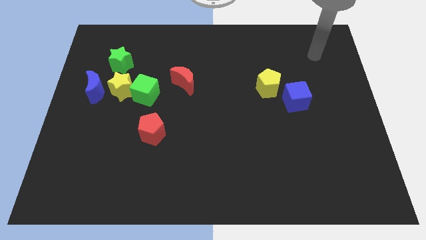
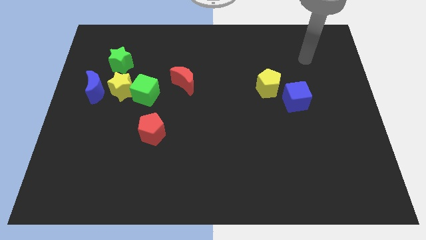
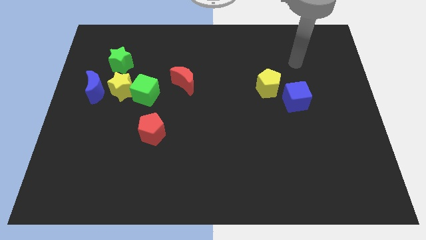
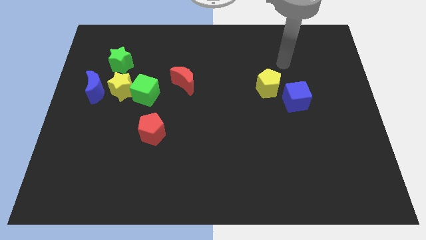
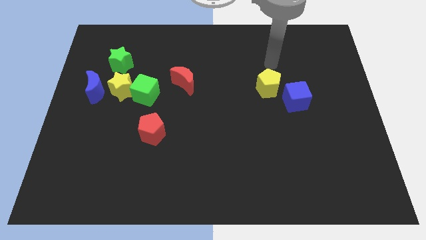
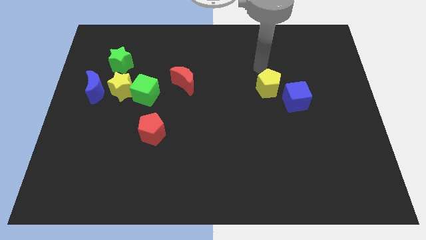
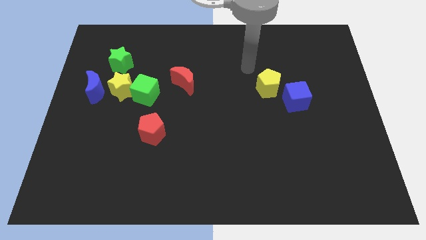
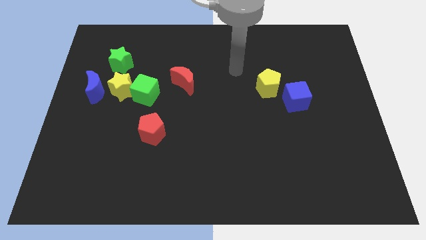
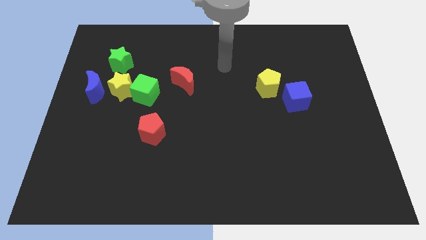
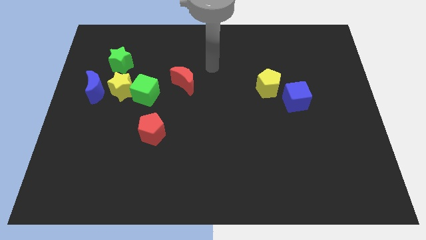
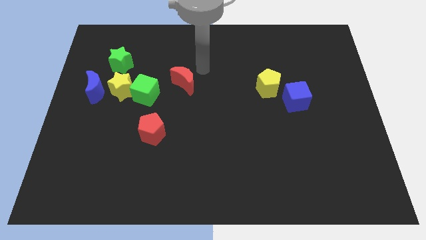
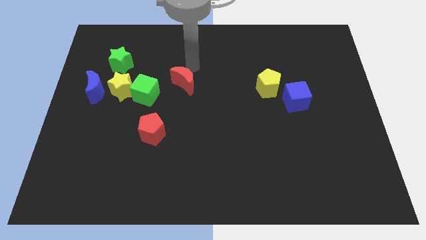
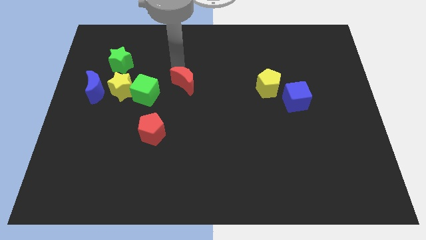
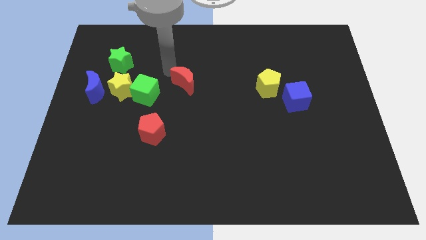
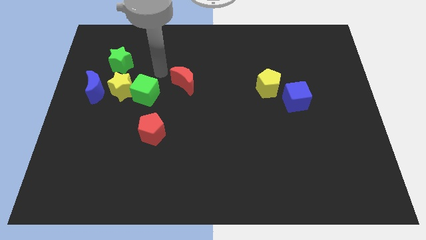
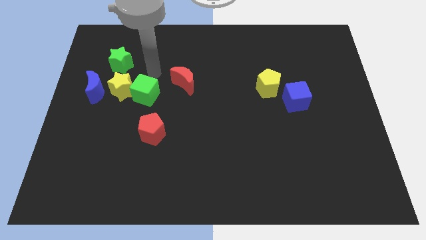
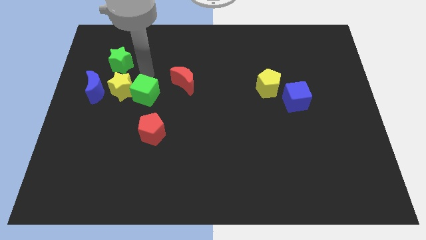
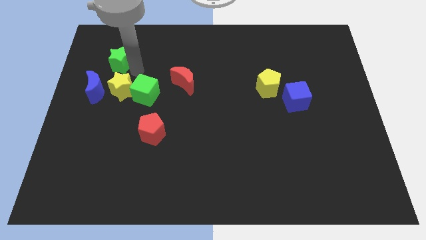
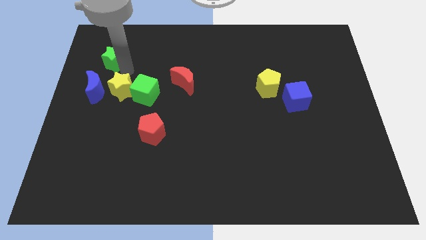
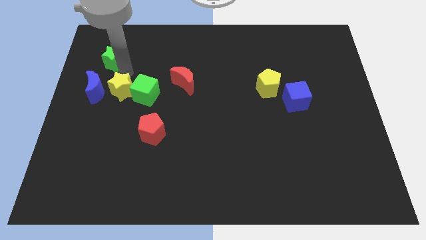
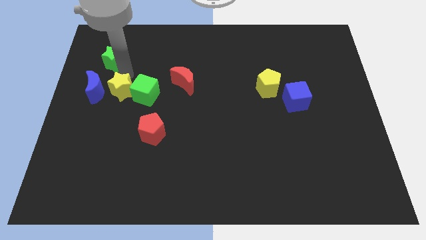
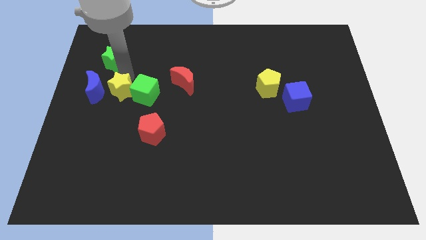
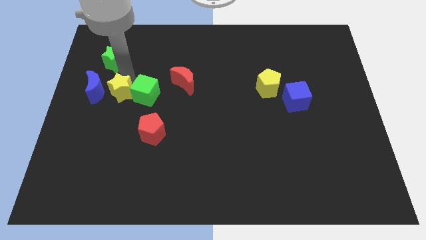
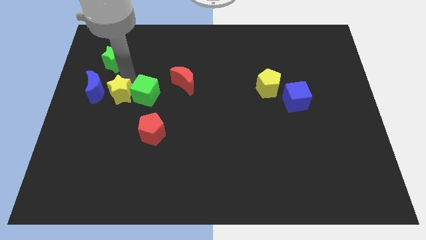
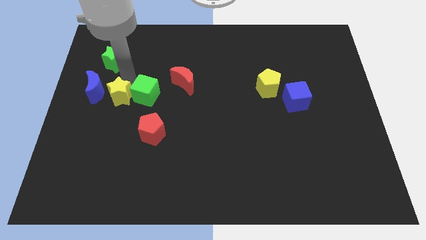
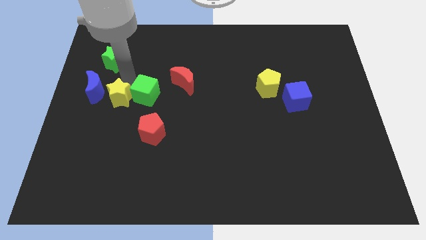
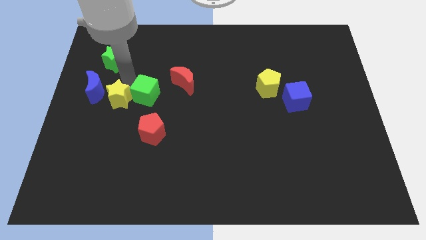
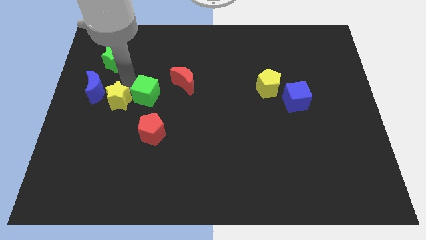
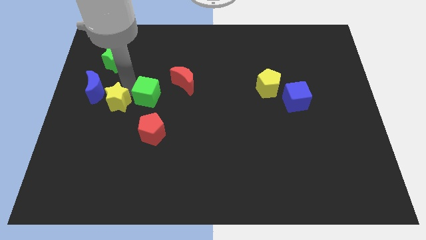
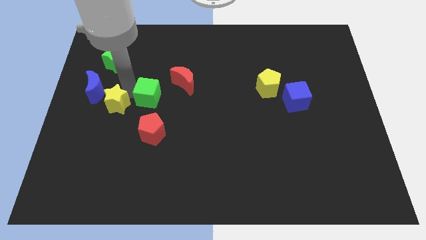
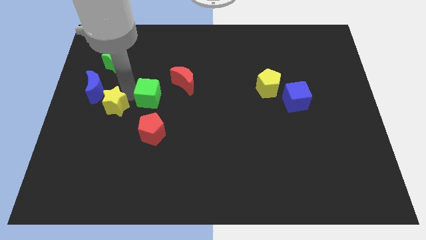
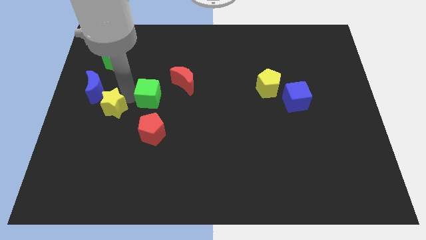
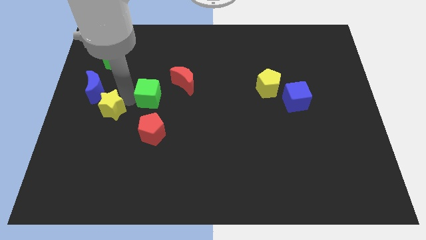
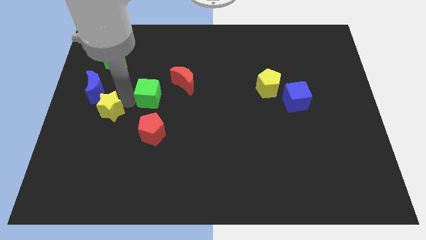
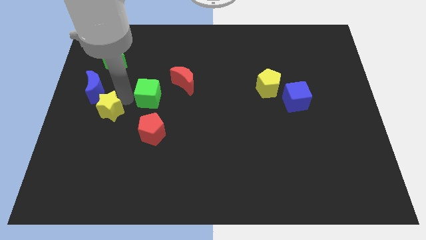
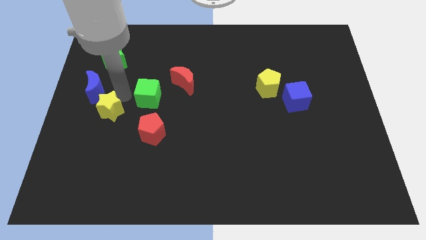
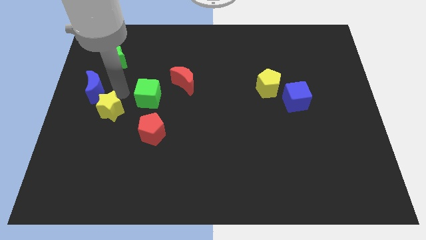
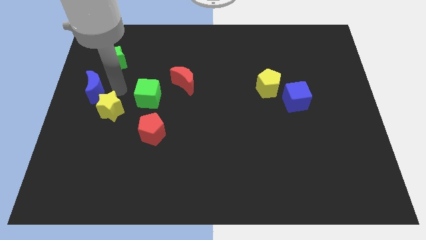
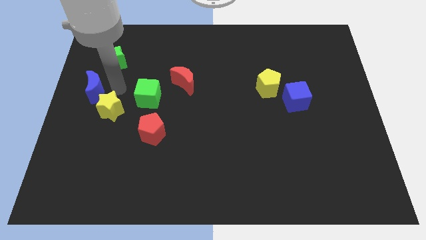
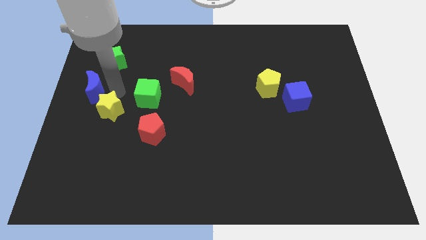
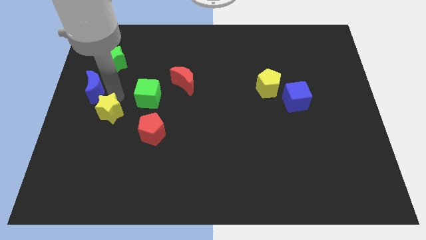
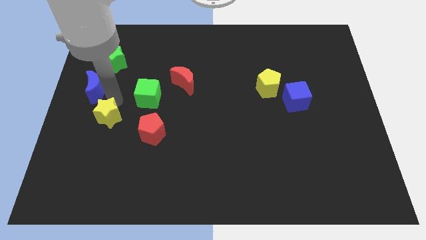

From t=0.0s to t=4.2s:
move the yellow star away from the group of blocks

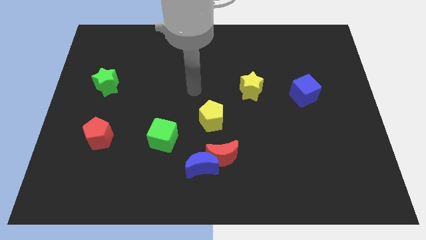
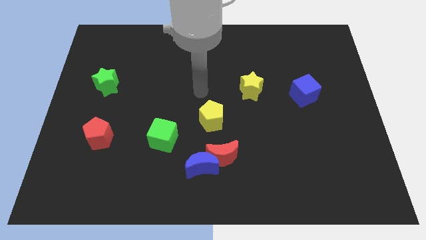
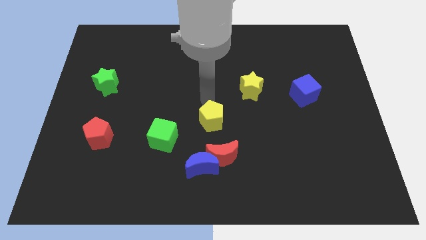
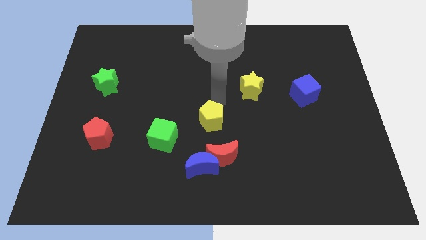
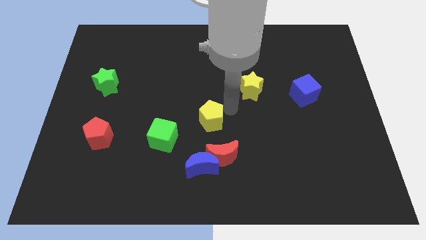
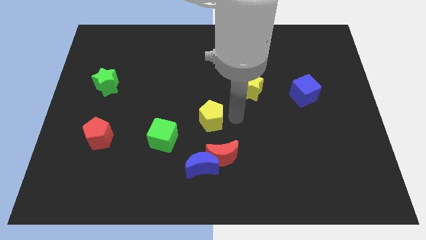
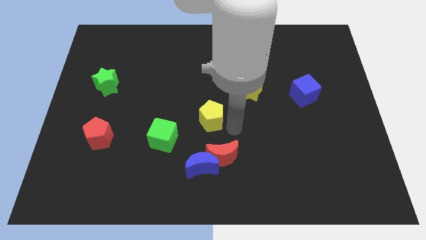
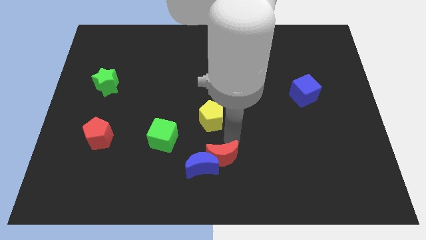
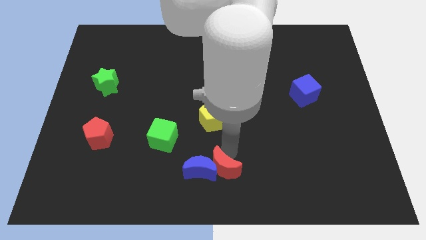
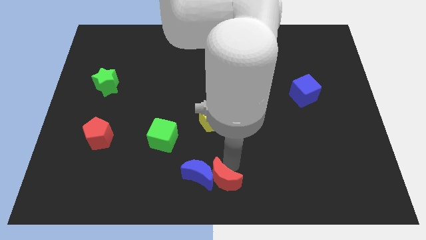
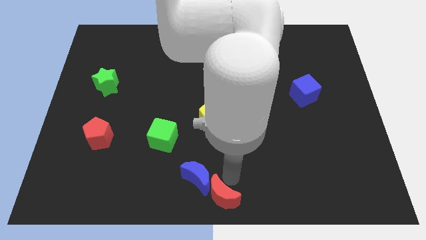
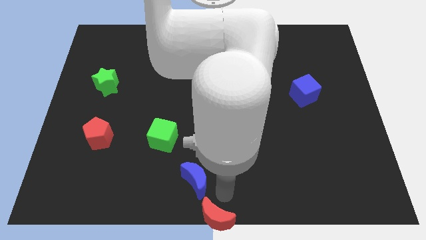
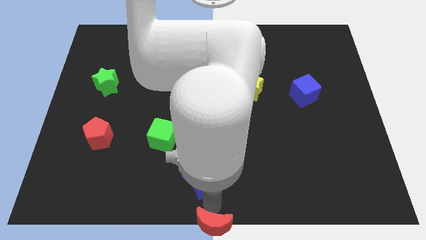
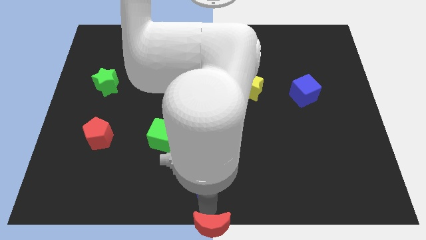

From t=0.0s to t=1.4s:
pull the blue moon apart from the red moon

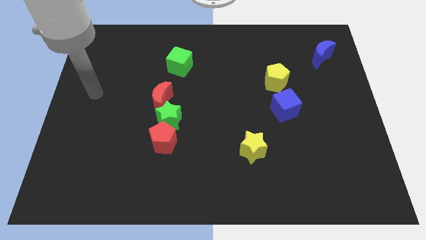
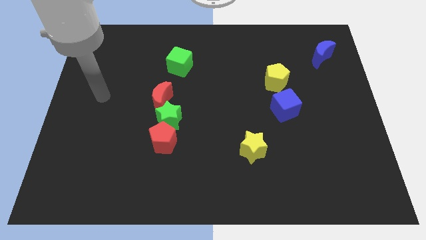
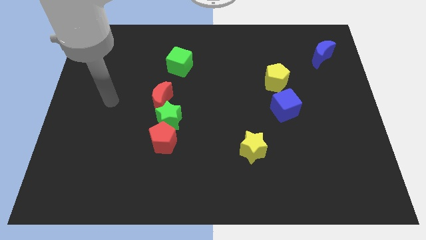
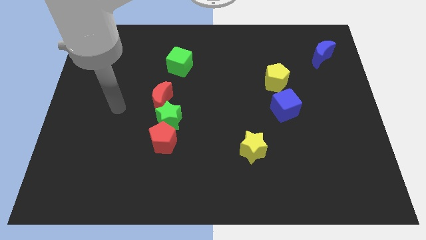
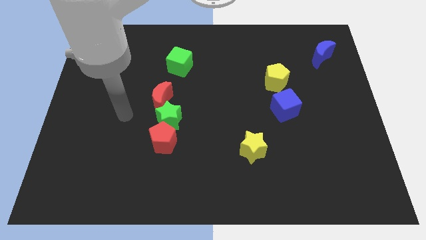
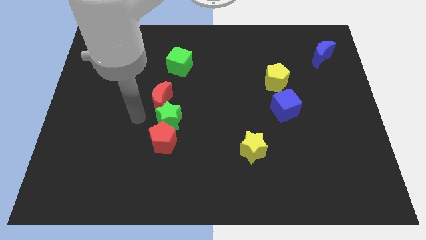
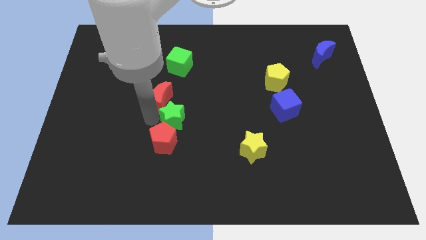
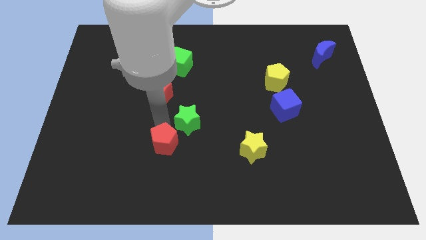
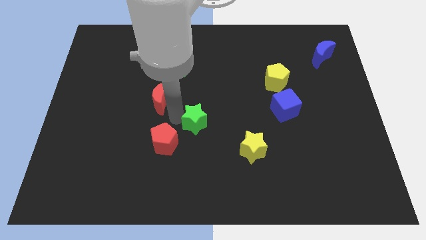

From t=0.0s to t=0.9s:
pull the red moon apart from the green star

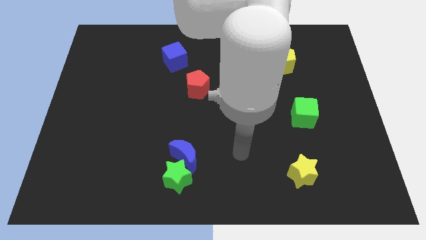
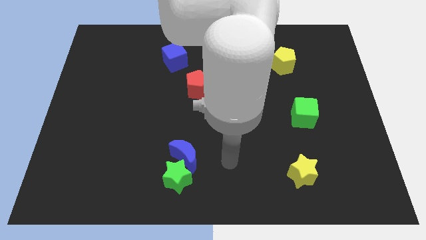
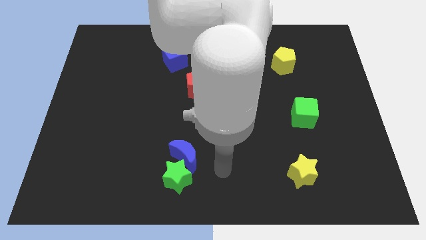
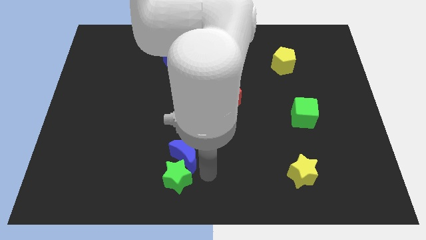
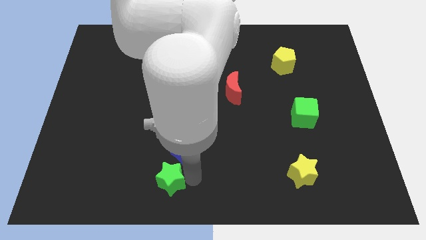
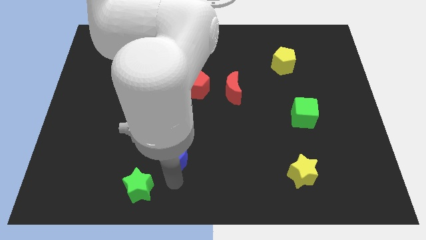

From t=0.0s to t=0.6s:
separate the blue moon from the green star

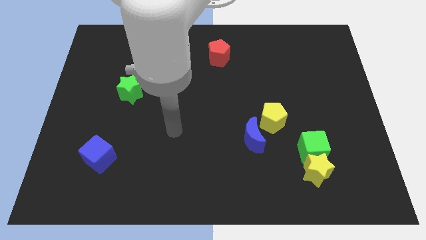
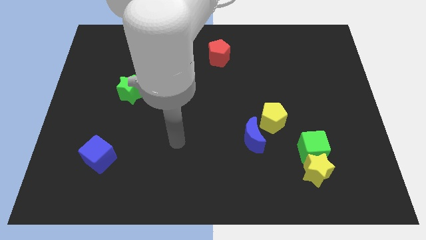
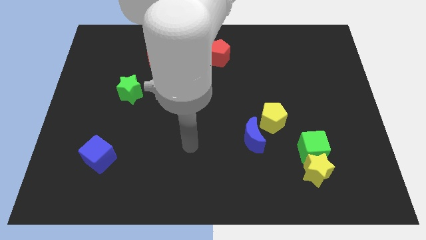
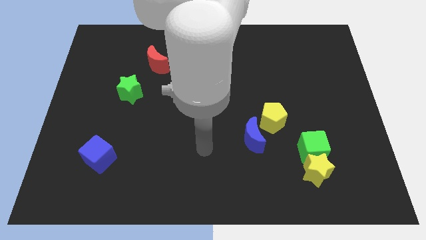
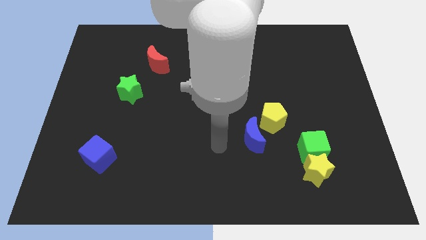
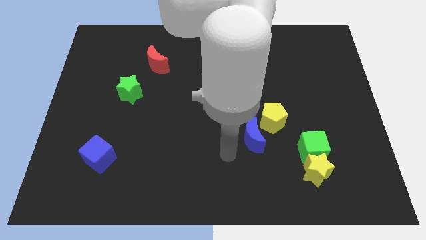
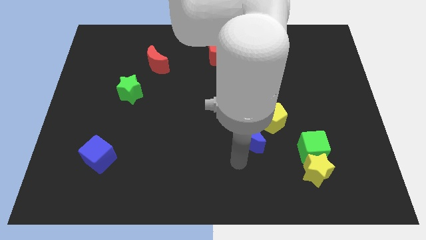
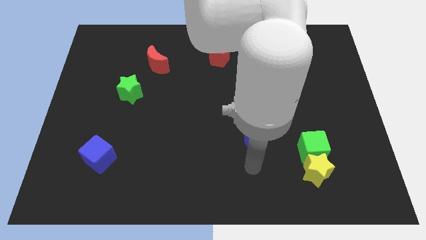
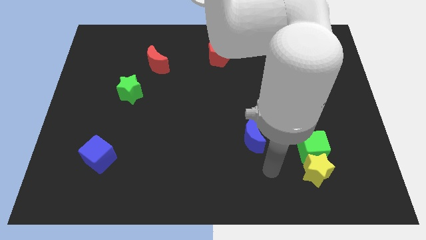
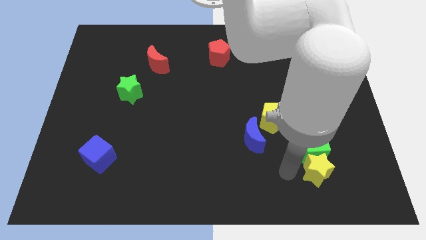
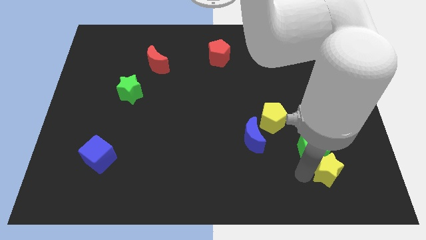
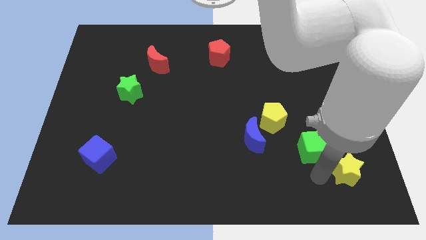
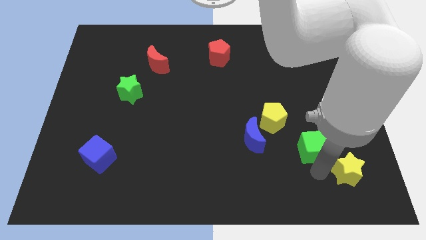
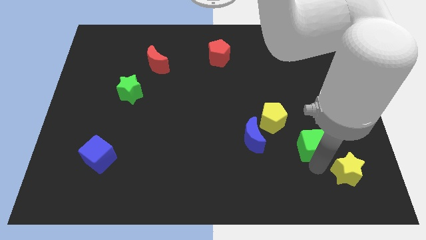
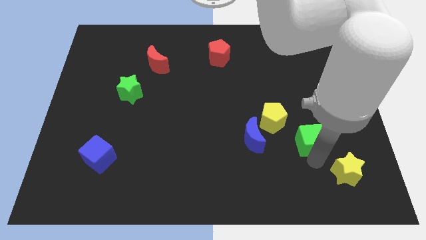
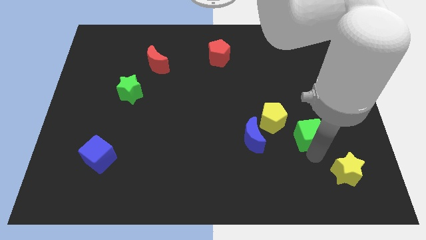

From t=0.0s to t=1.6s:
move the green cube away from the yellow star

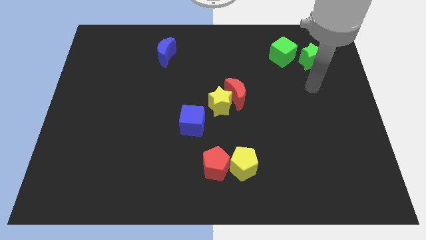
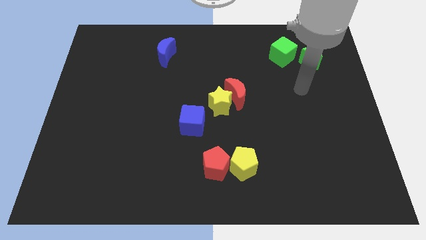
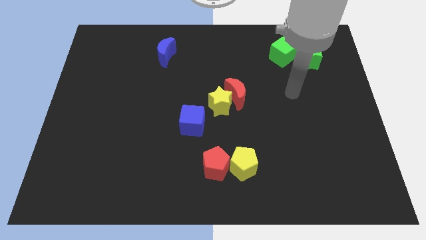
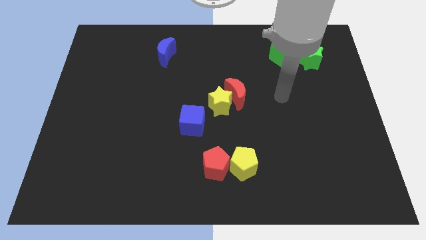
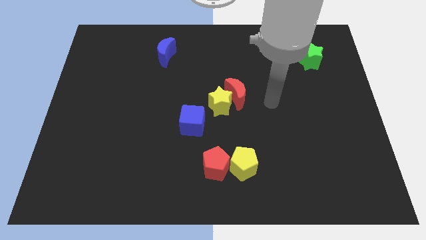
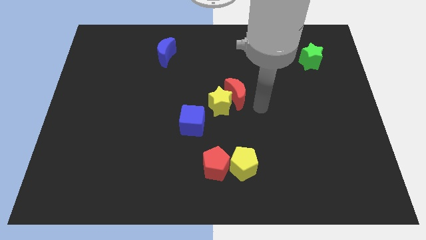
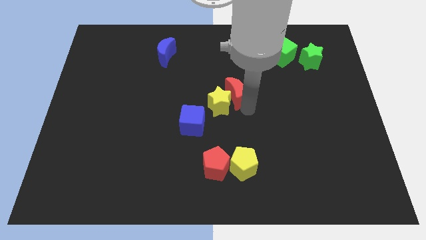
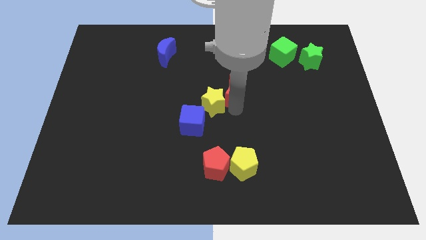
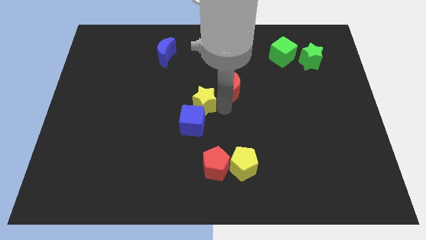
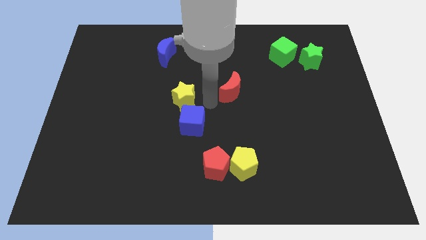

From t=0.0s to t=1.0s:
pull the red moon apart from the yellow star
